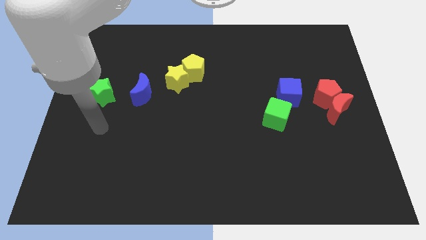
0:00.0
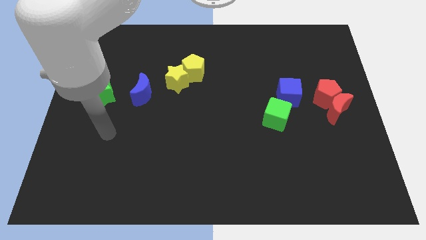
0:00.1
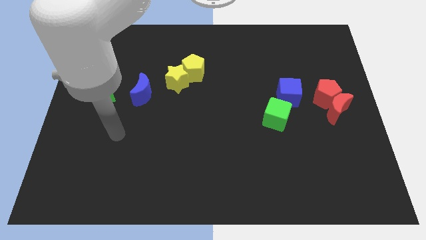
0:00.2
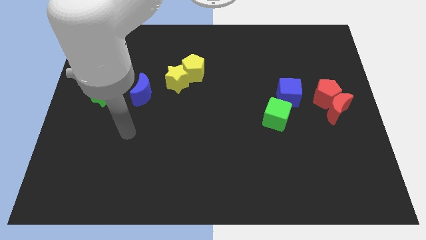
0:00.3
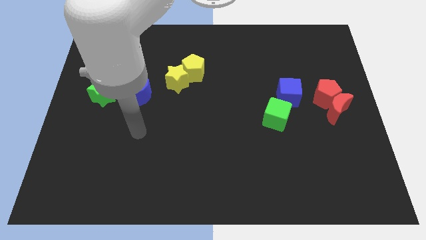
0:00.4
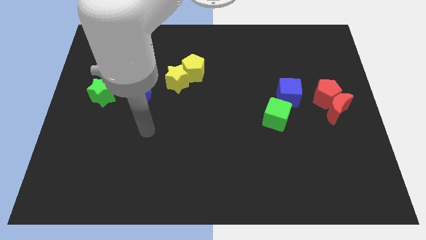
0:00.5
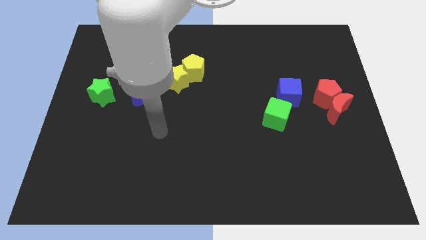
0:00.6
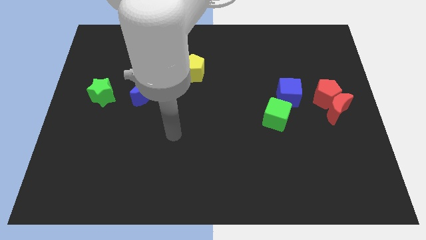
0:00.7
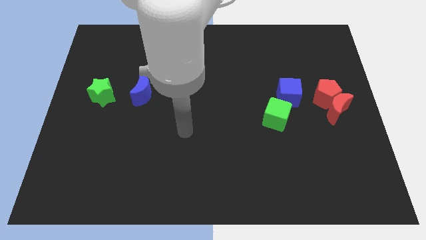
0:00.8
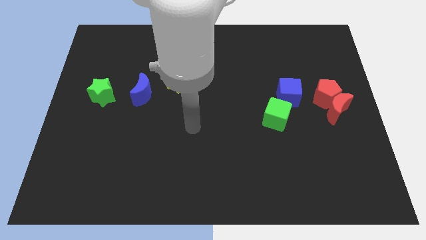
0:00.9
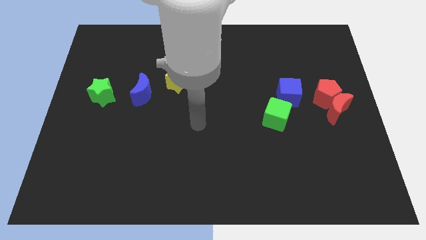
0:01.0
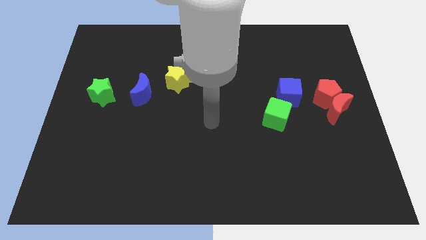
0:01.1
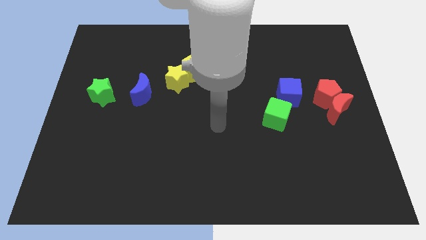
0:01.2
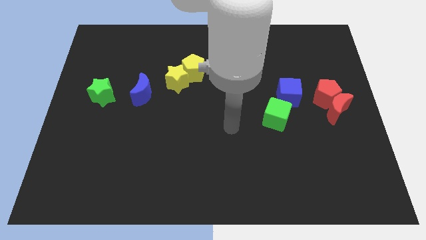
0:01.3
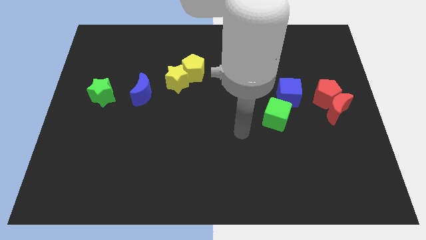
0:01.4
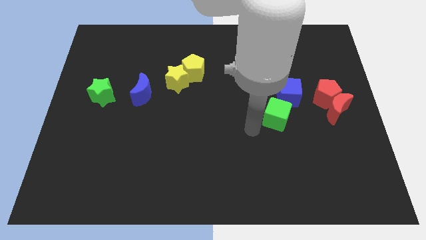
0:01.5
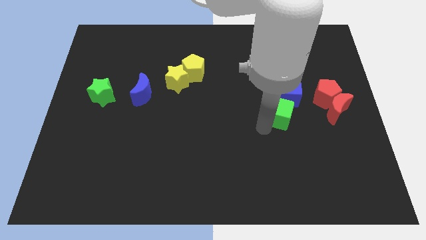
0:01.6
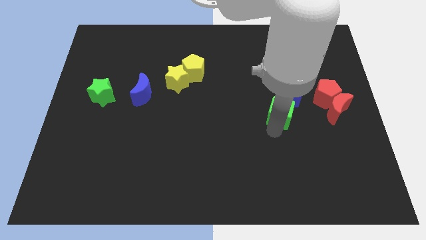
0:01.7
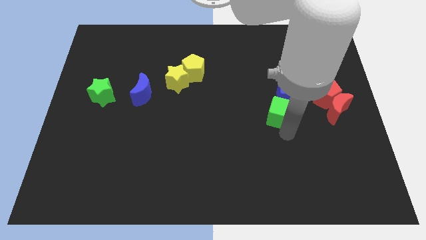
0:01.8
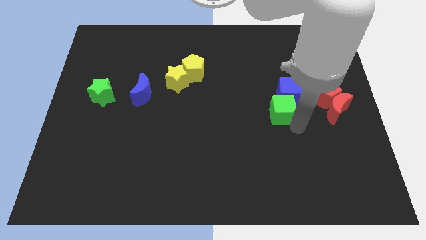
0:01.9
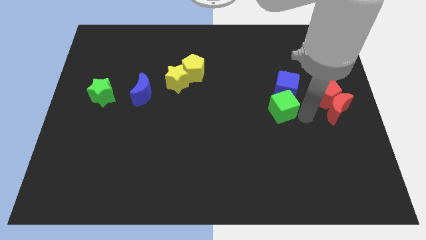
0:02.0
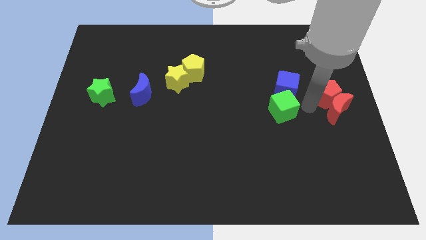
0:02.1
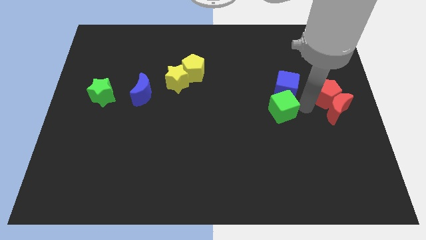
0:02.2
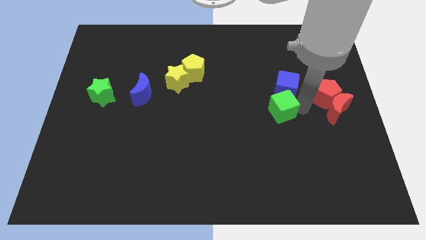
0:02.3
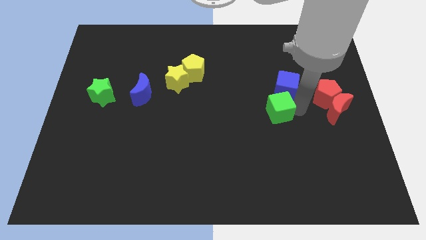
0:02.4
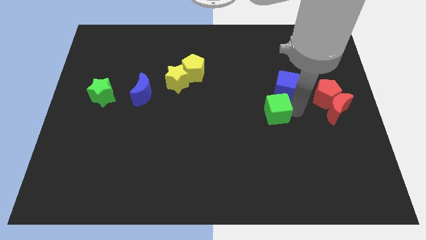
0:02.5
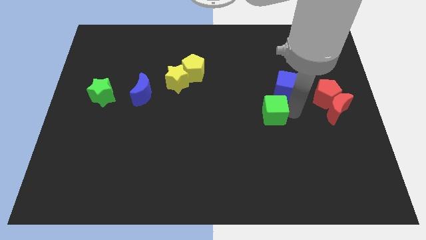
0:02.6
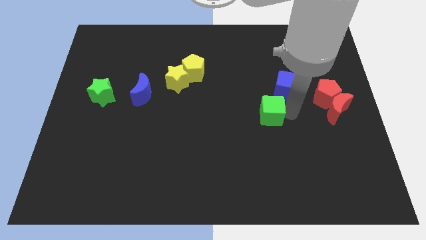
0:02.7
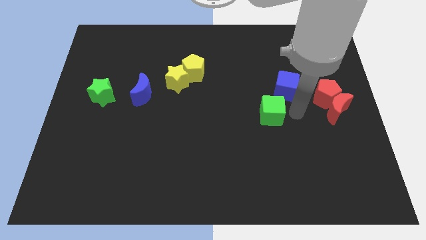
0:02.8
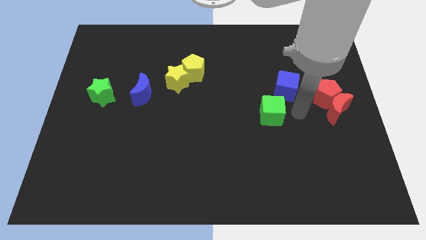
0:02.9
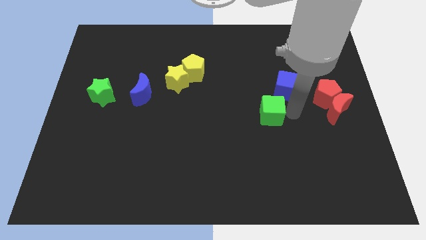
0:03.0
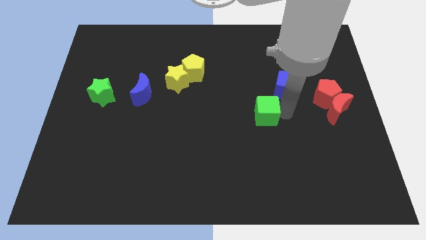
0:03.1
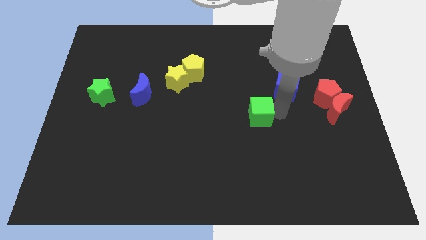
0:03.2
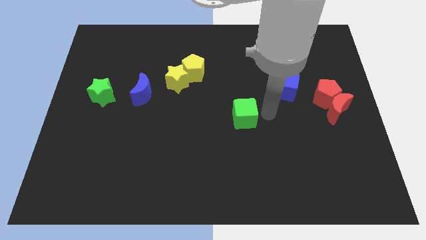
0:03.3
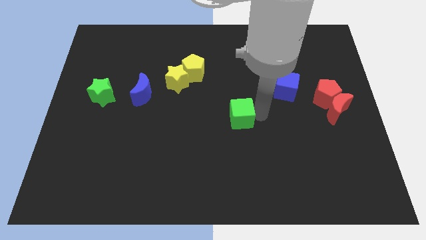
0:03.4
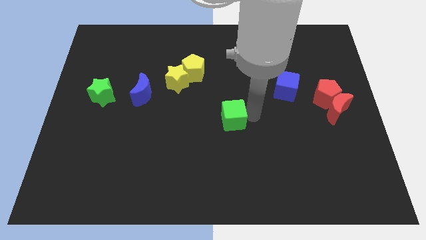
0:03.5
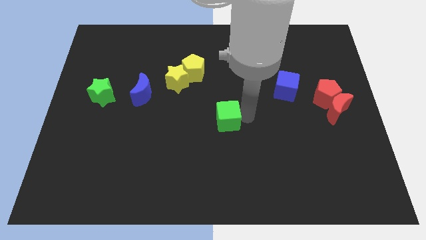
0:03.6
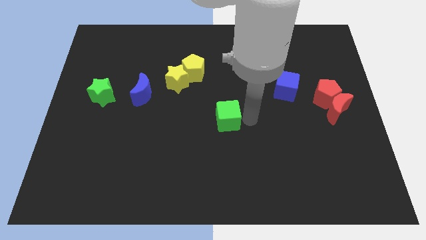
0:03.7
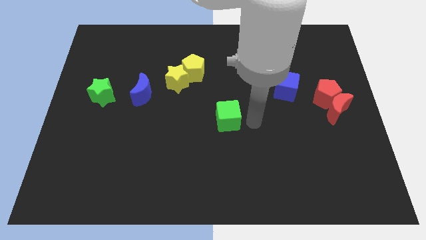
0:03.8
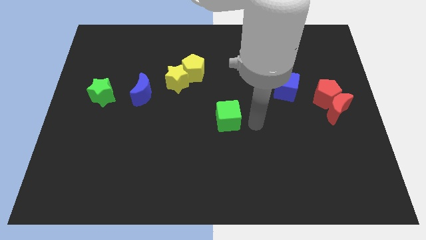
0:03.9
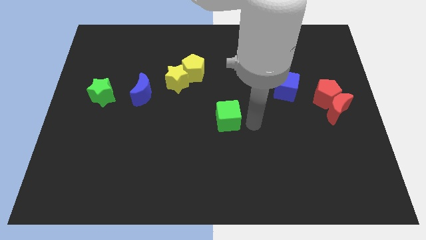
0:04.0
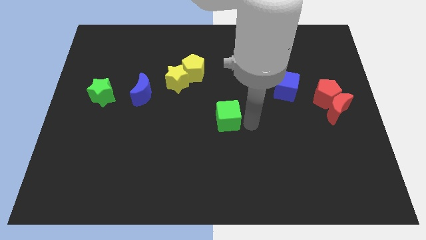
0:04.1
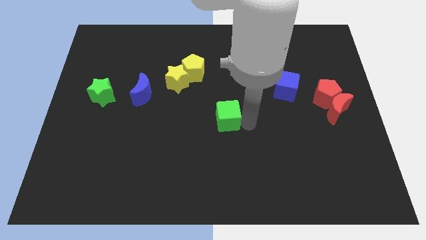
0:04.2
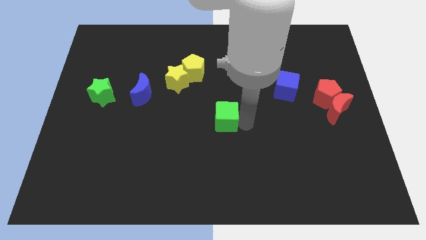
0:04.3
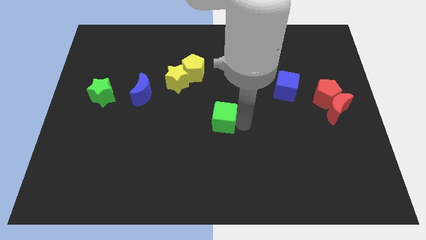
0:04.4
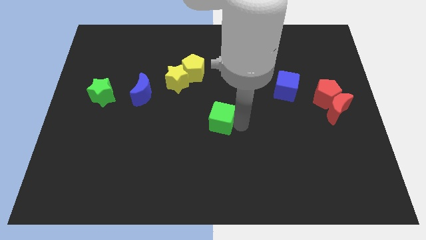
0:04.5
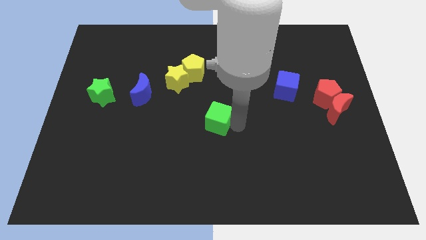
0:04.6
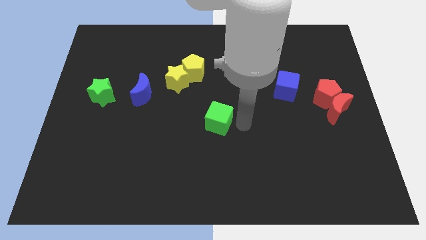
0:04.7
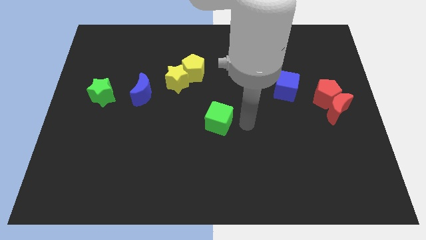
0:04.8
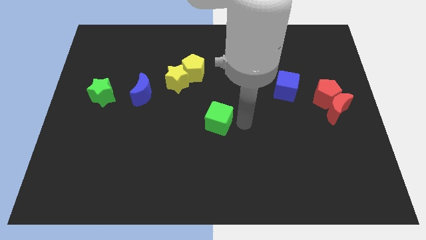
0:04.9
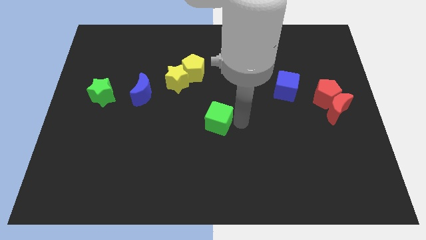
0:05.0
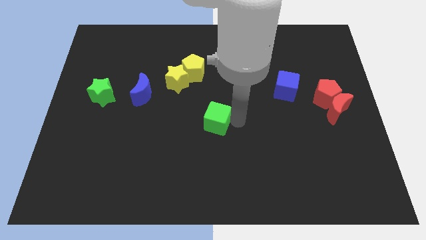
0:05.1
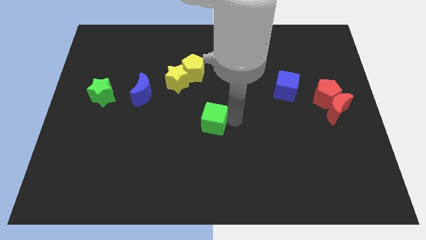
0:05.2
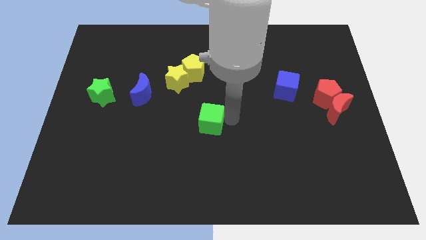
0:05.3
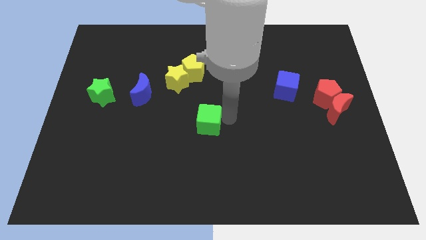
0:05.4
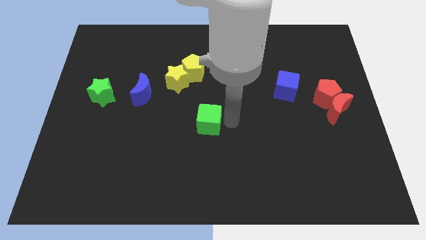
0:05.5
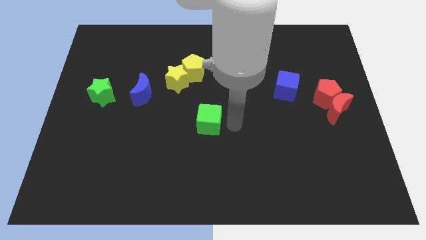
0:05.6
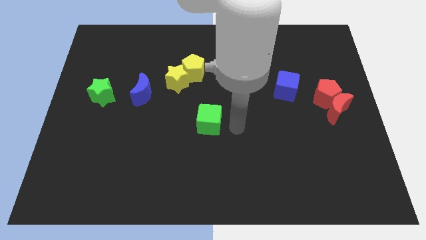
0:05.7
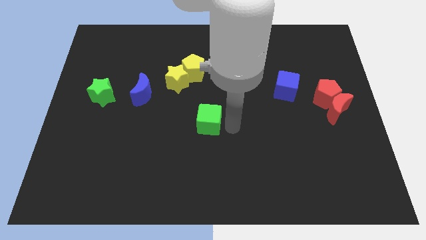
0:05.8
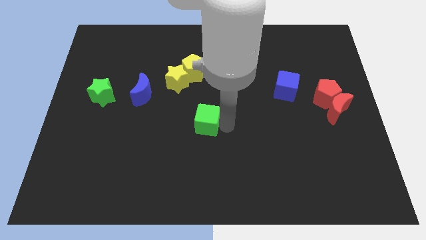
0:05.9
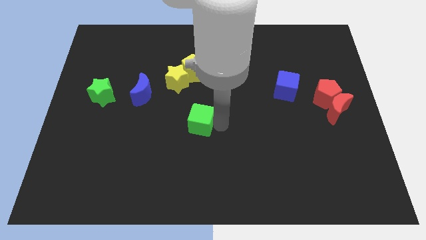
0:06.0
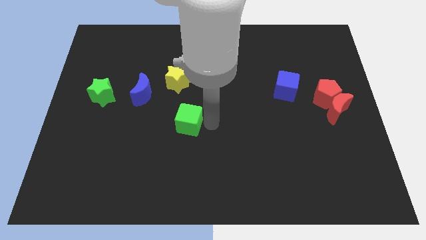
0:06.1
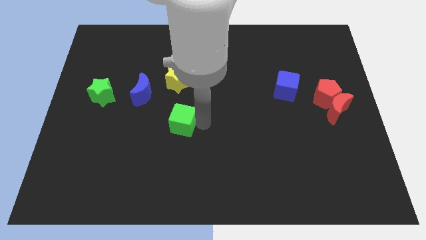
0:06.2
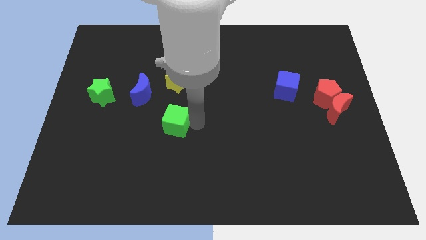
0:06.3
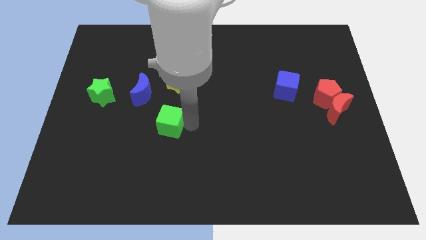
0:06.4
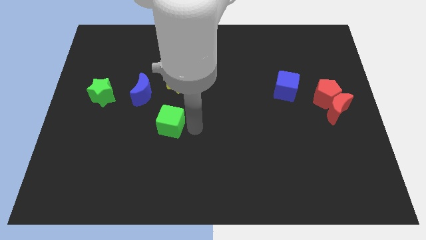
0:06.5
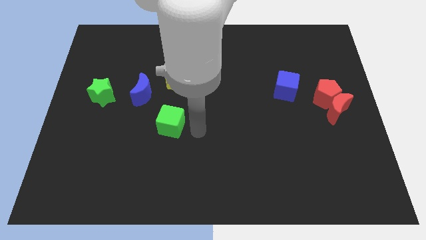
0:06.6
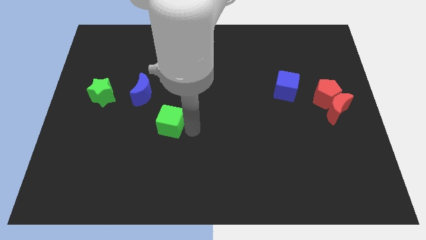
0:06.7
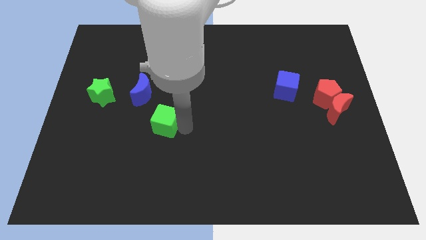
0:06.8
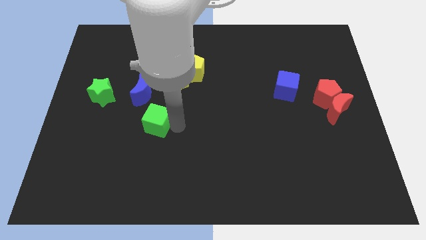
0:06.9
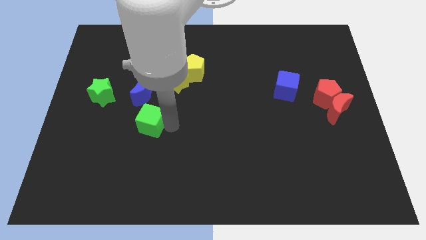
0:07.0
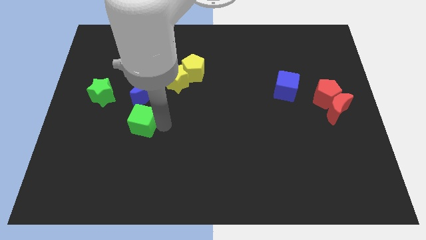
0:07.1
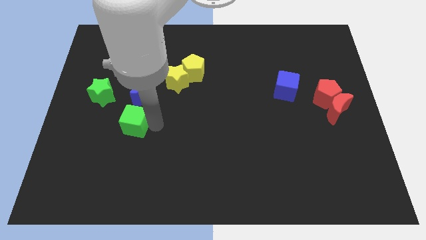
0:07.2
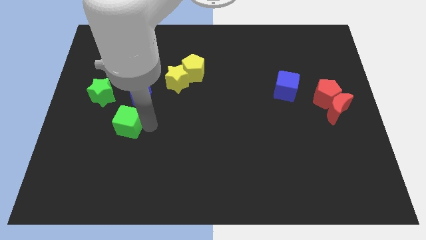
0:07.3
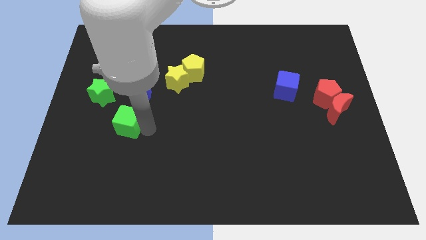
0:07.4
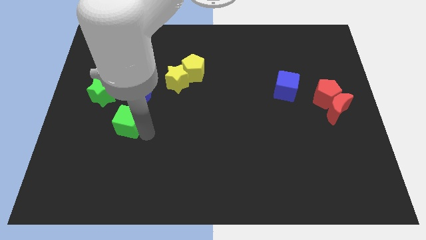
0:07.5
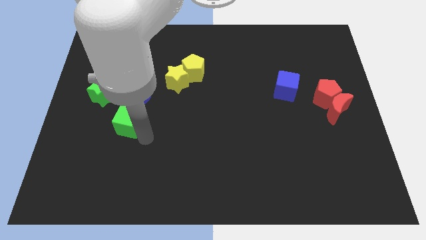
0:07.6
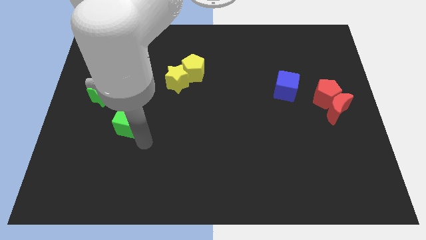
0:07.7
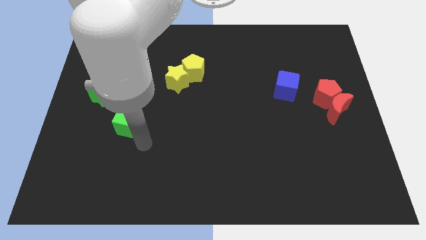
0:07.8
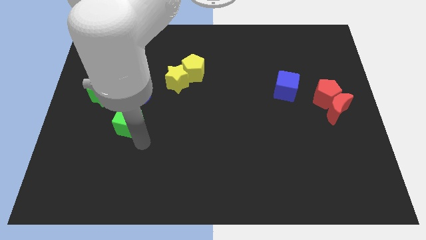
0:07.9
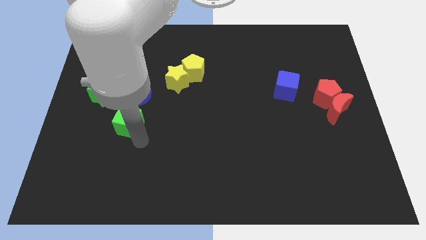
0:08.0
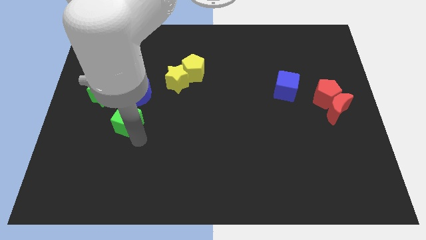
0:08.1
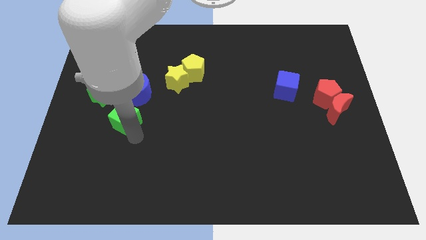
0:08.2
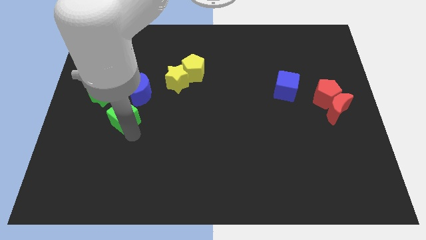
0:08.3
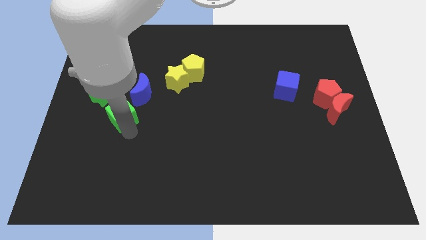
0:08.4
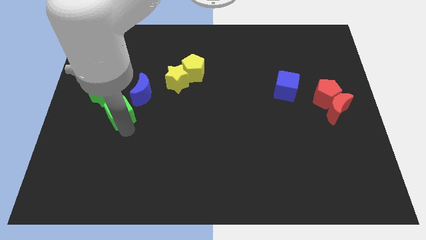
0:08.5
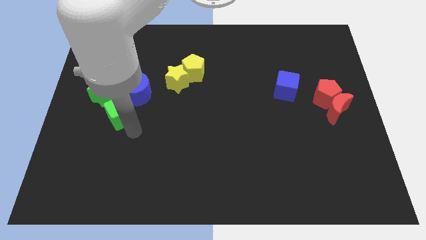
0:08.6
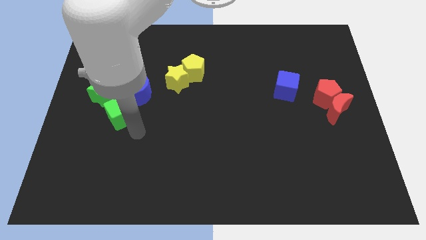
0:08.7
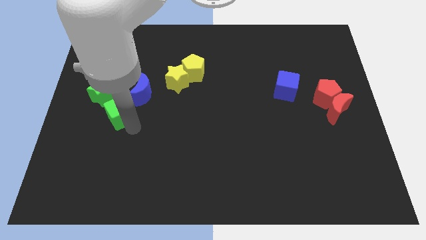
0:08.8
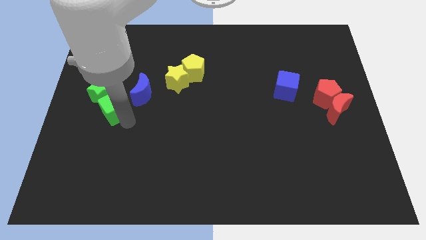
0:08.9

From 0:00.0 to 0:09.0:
move the green cube close to the green star
